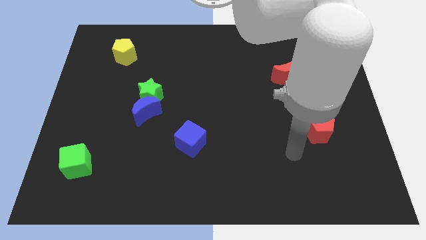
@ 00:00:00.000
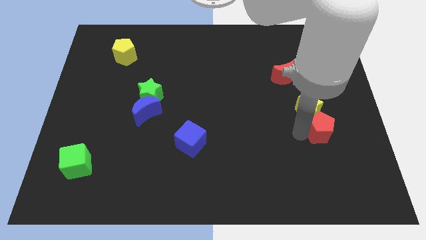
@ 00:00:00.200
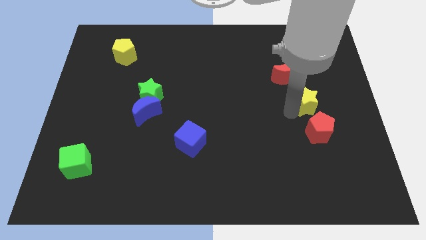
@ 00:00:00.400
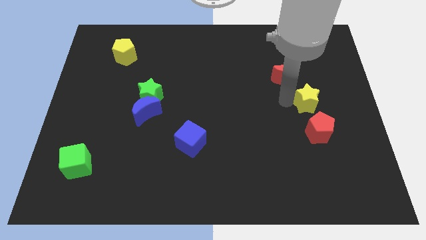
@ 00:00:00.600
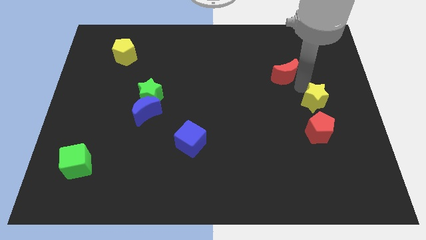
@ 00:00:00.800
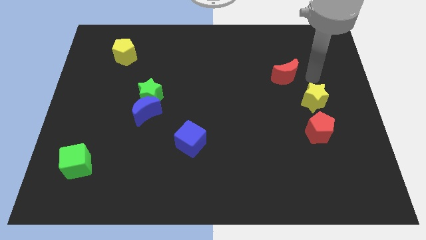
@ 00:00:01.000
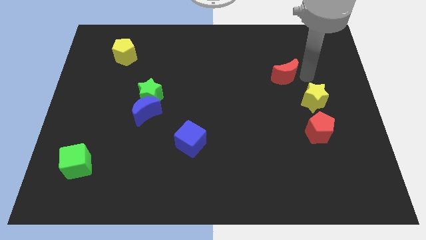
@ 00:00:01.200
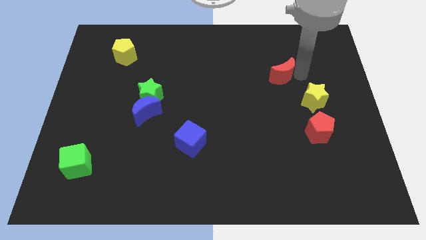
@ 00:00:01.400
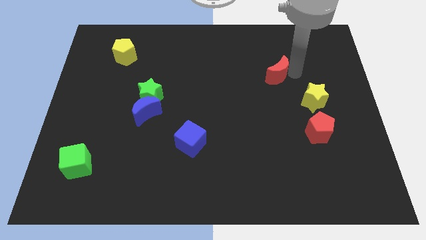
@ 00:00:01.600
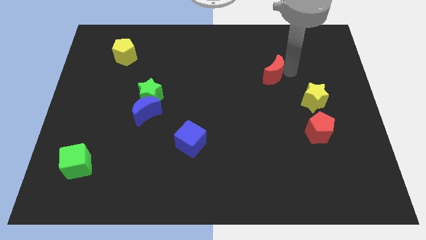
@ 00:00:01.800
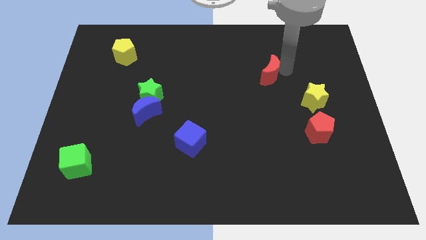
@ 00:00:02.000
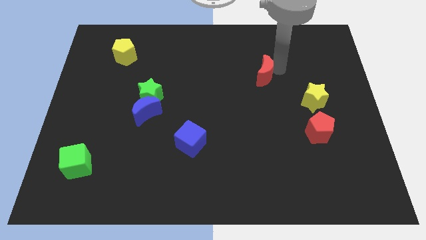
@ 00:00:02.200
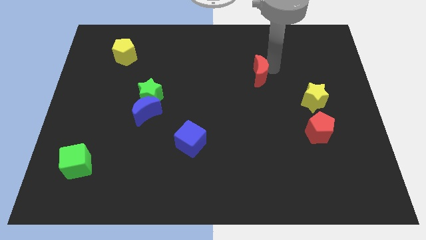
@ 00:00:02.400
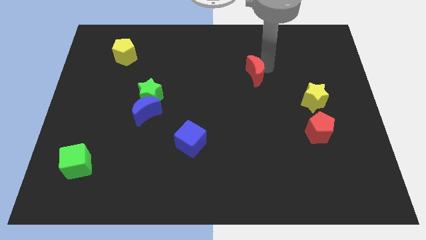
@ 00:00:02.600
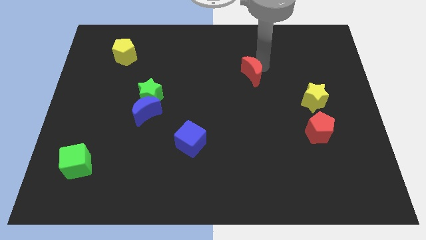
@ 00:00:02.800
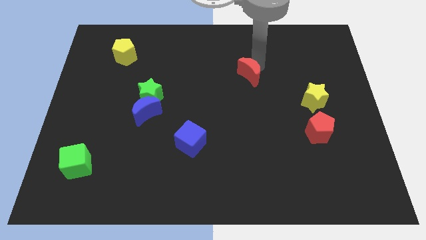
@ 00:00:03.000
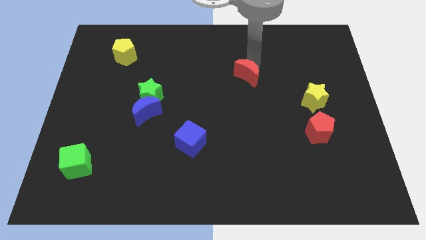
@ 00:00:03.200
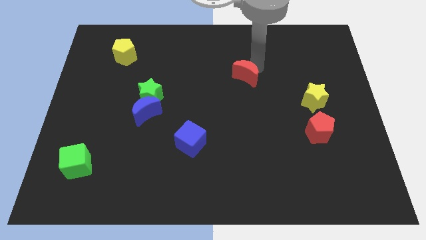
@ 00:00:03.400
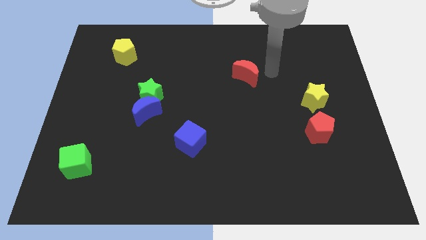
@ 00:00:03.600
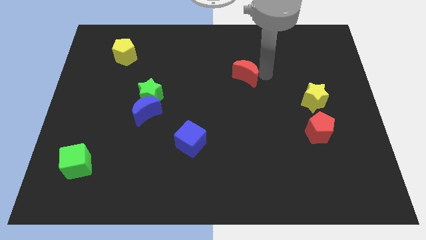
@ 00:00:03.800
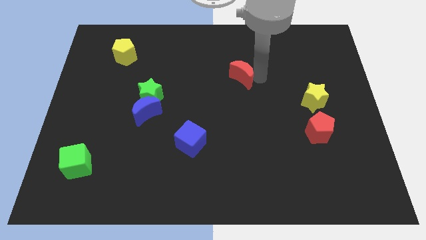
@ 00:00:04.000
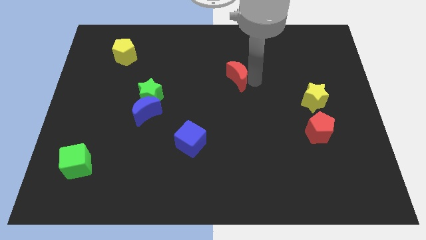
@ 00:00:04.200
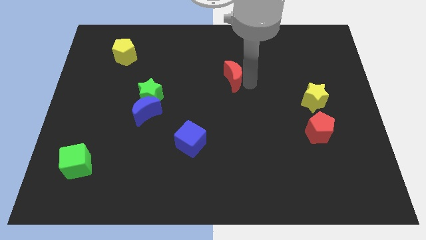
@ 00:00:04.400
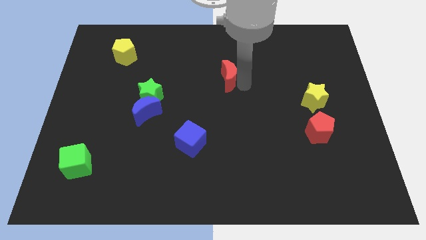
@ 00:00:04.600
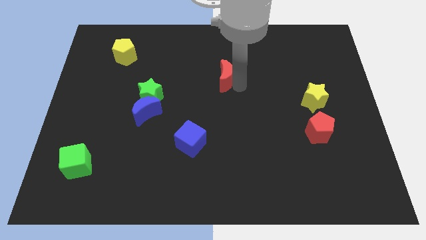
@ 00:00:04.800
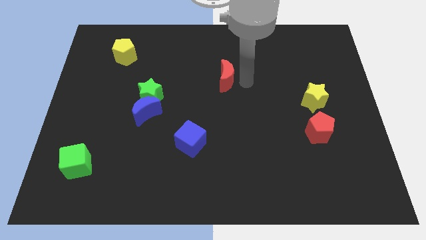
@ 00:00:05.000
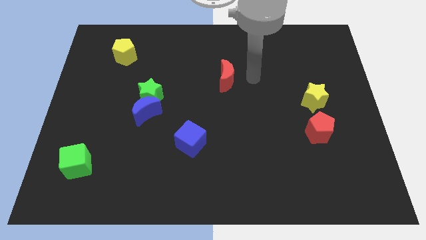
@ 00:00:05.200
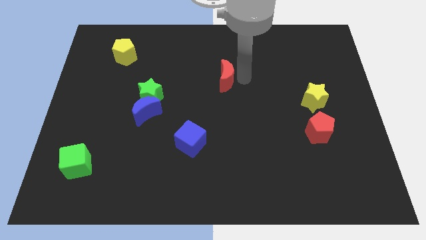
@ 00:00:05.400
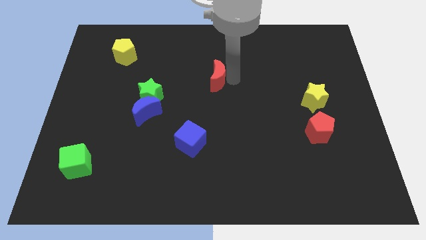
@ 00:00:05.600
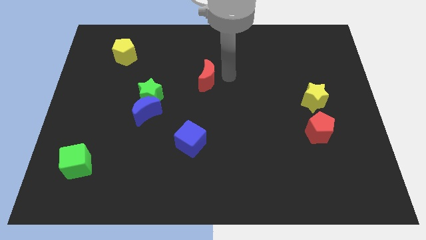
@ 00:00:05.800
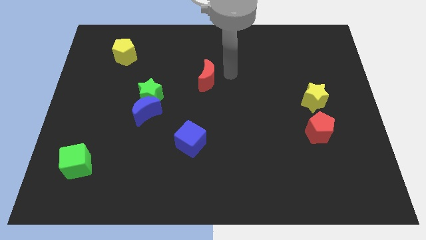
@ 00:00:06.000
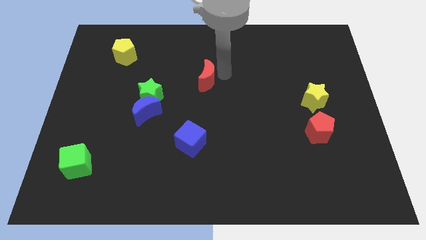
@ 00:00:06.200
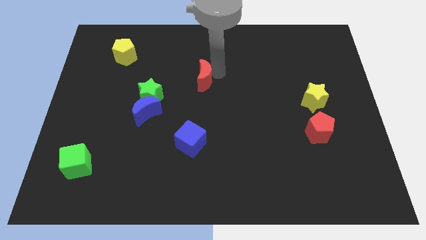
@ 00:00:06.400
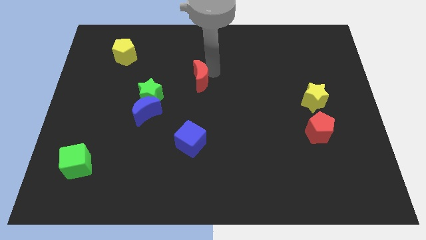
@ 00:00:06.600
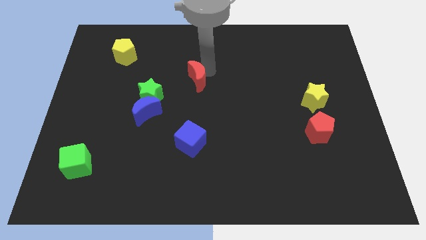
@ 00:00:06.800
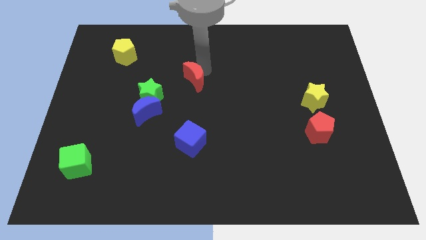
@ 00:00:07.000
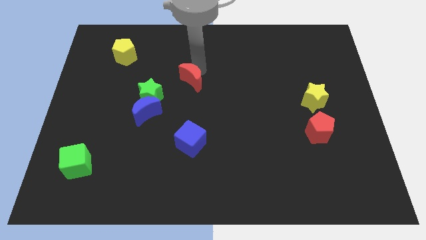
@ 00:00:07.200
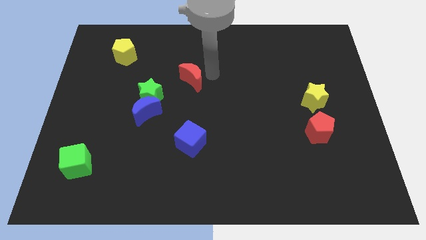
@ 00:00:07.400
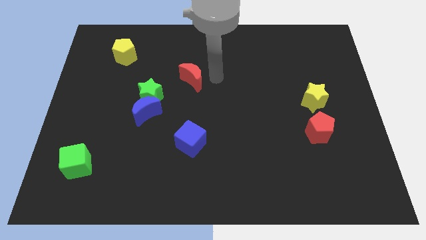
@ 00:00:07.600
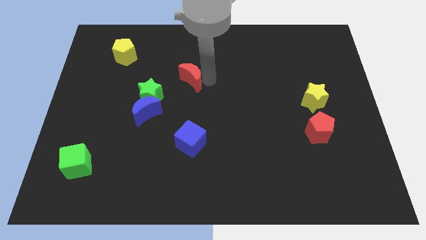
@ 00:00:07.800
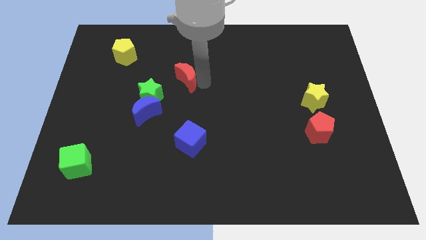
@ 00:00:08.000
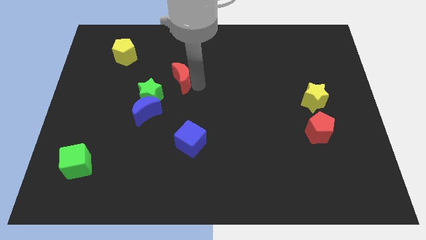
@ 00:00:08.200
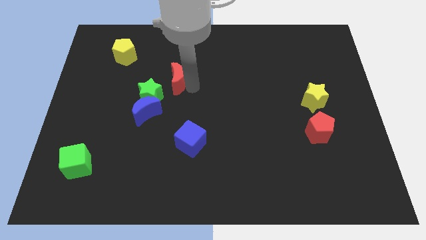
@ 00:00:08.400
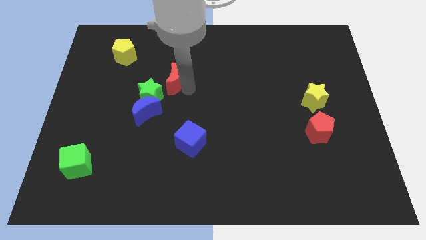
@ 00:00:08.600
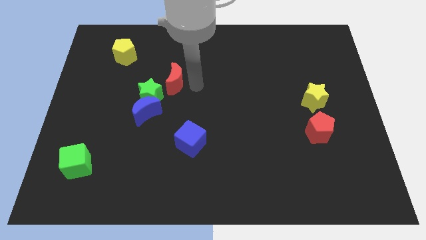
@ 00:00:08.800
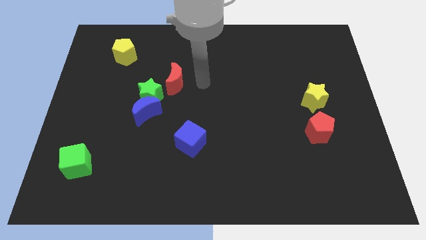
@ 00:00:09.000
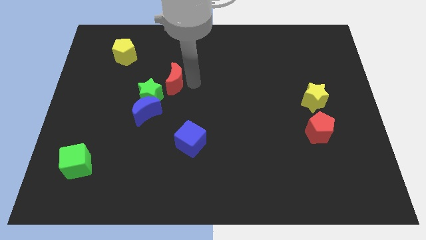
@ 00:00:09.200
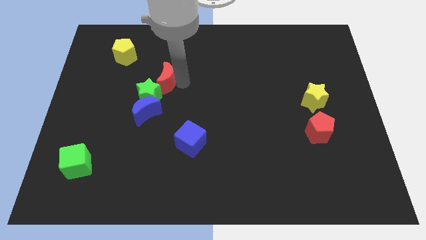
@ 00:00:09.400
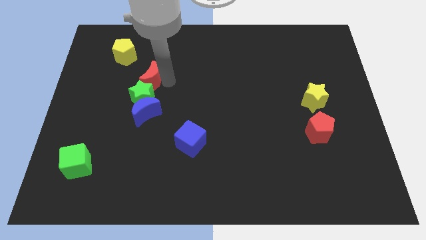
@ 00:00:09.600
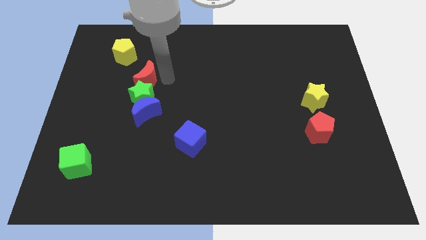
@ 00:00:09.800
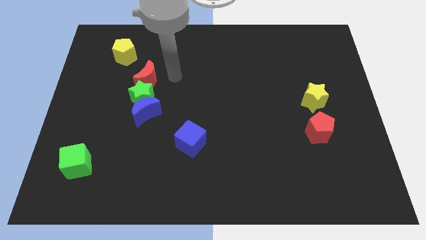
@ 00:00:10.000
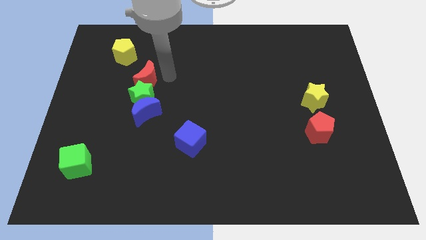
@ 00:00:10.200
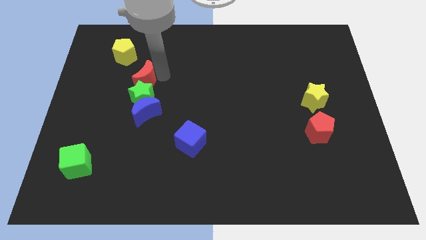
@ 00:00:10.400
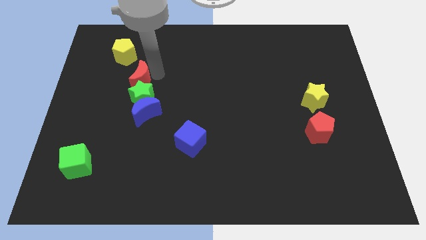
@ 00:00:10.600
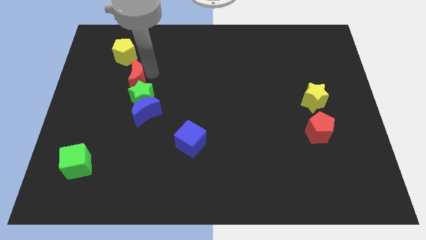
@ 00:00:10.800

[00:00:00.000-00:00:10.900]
push the red moon below the yellow pentagon

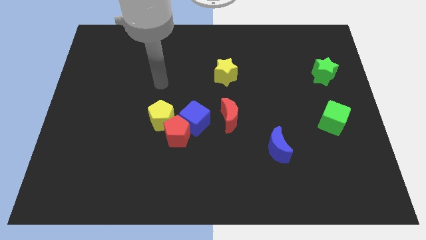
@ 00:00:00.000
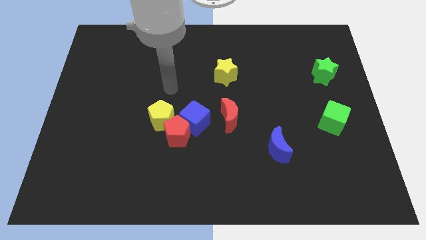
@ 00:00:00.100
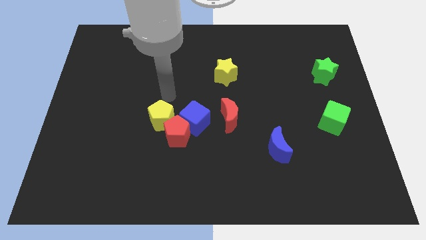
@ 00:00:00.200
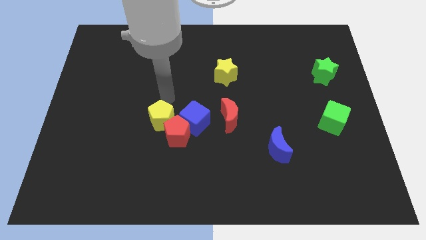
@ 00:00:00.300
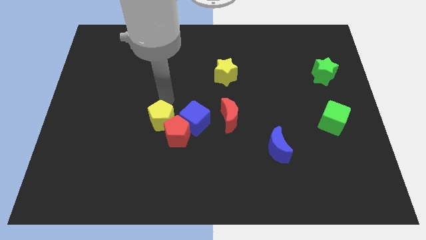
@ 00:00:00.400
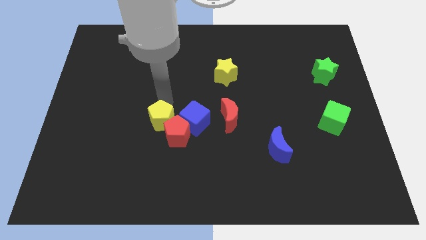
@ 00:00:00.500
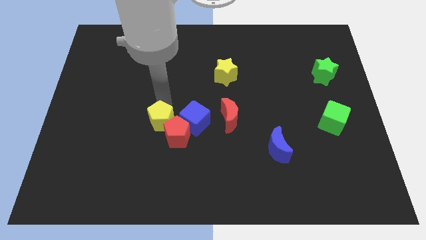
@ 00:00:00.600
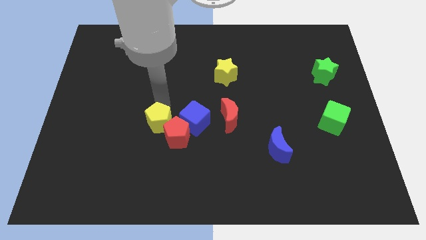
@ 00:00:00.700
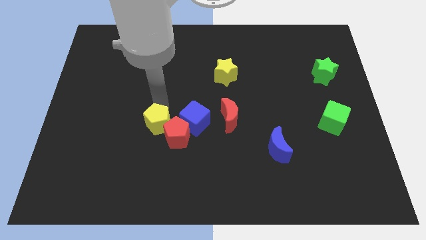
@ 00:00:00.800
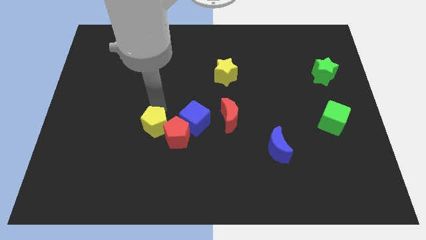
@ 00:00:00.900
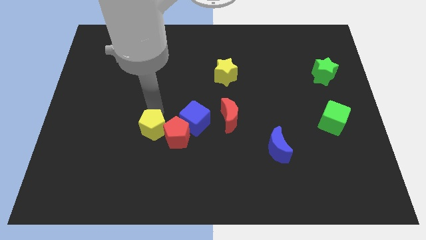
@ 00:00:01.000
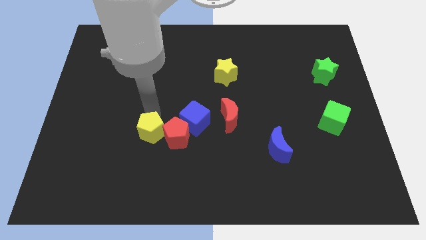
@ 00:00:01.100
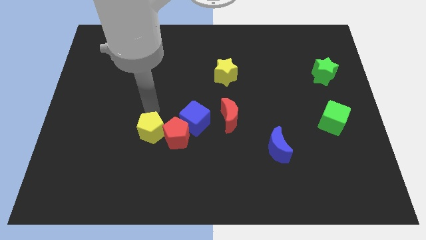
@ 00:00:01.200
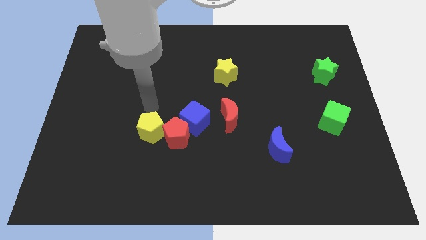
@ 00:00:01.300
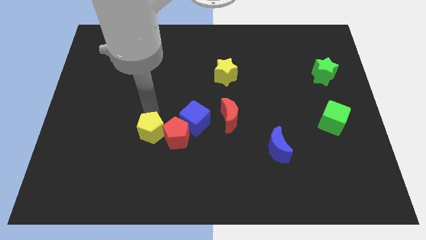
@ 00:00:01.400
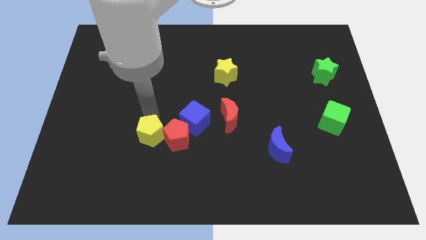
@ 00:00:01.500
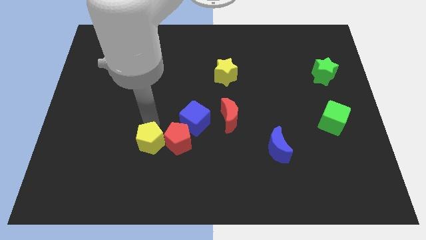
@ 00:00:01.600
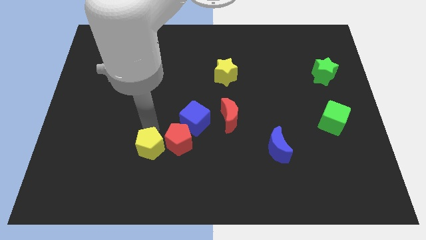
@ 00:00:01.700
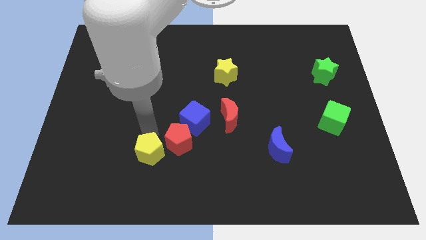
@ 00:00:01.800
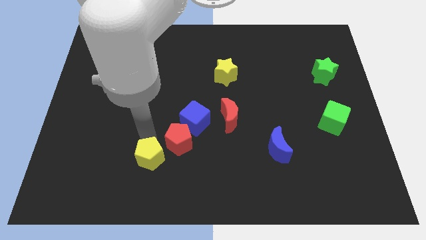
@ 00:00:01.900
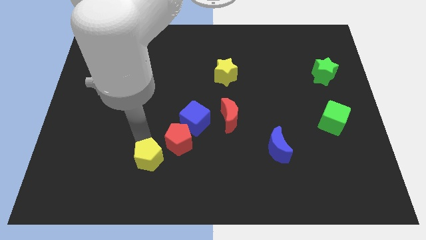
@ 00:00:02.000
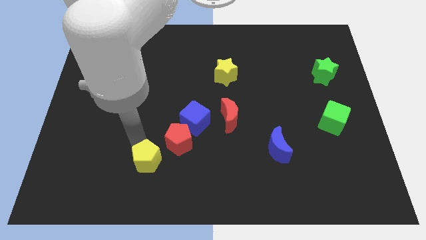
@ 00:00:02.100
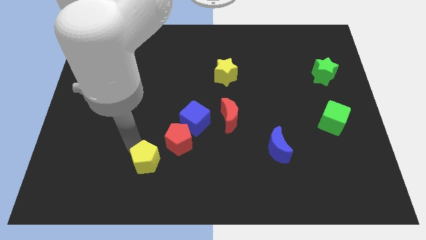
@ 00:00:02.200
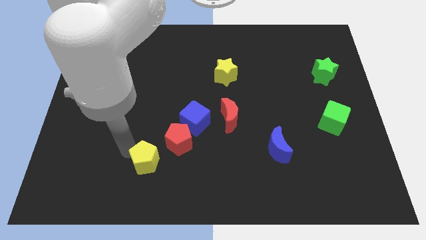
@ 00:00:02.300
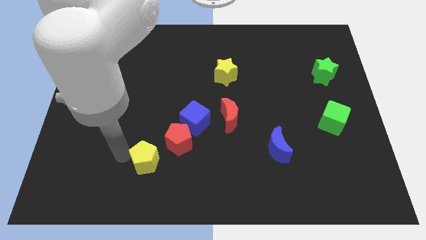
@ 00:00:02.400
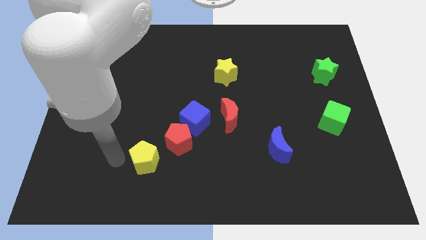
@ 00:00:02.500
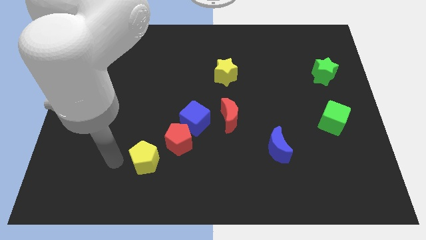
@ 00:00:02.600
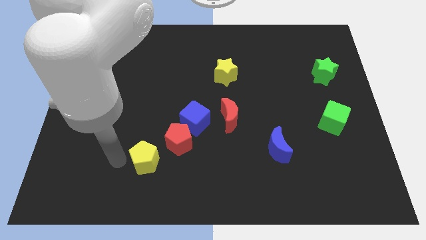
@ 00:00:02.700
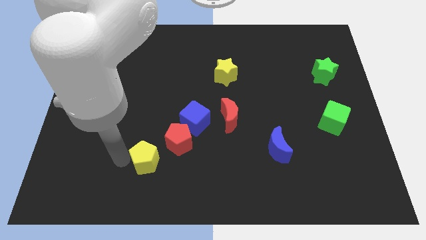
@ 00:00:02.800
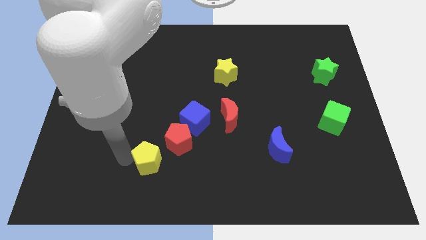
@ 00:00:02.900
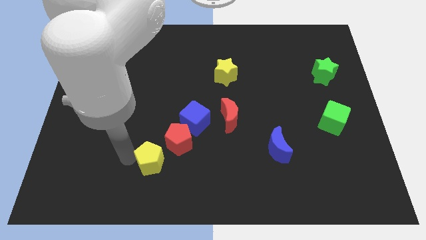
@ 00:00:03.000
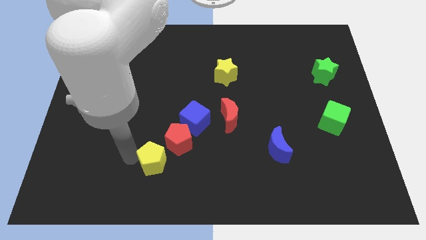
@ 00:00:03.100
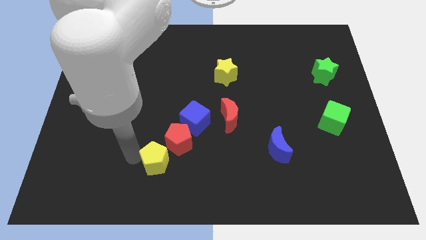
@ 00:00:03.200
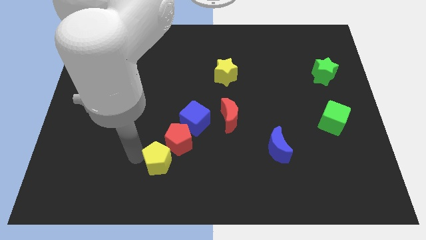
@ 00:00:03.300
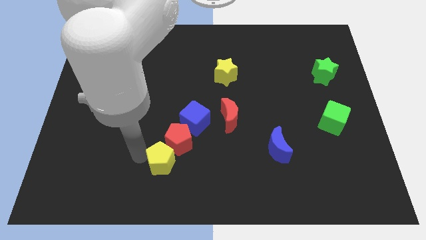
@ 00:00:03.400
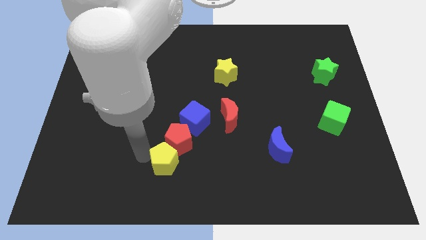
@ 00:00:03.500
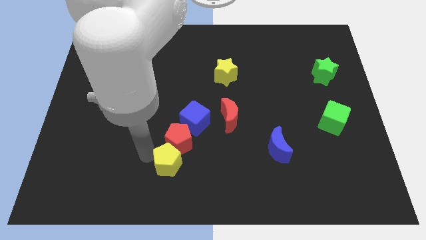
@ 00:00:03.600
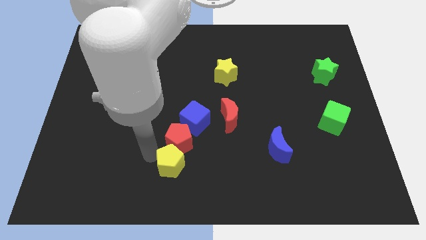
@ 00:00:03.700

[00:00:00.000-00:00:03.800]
slide the yellow pentagon to the bottom side of the blue cube
